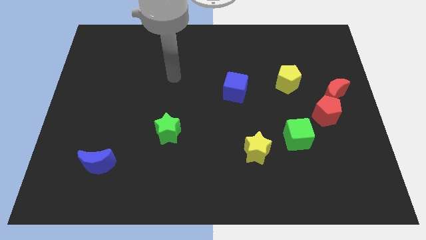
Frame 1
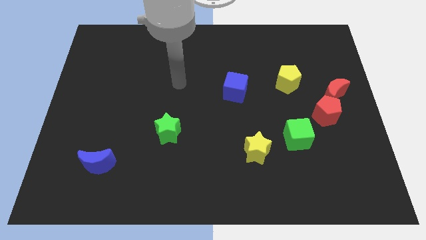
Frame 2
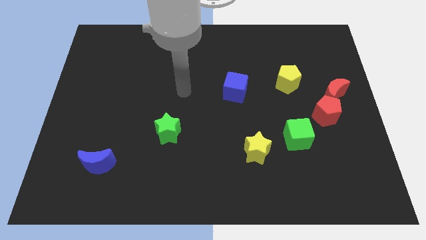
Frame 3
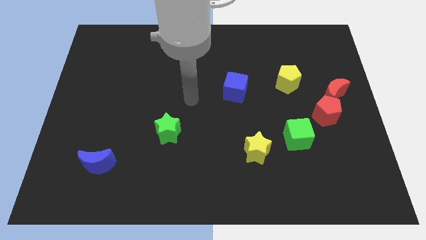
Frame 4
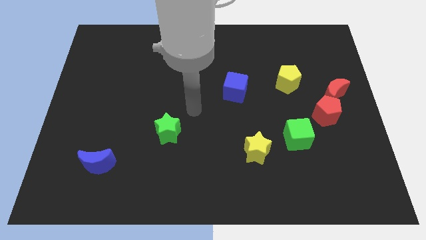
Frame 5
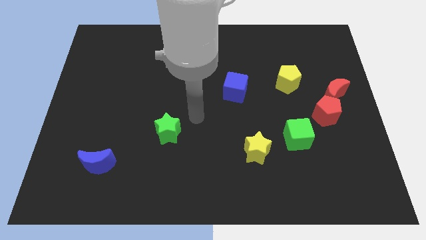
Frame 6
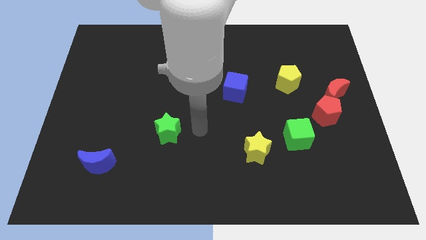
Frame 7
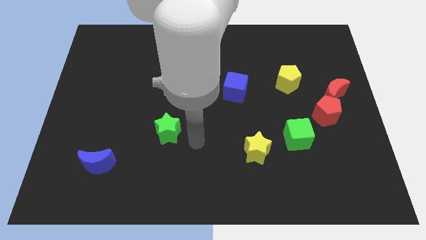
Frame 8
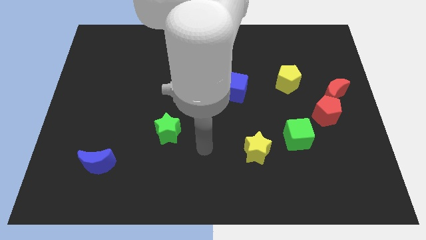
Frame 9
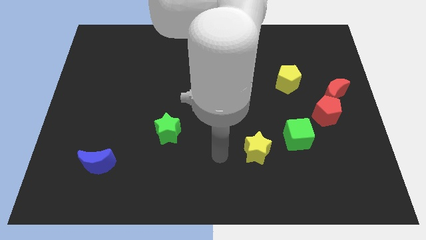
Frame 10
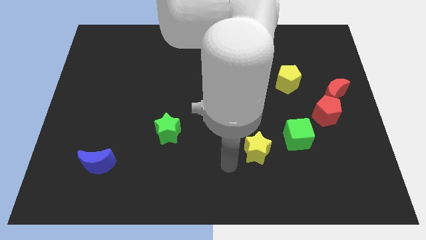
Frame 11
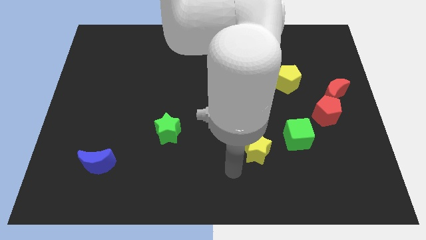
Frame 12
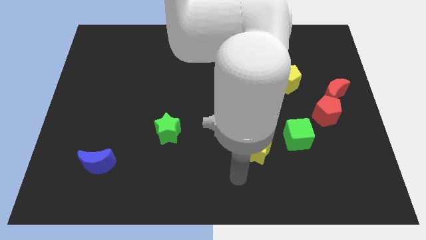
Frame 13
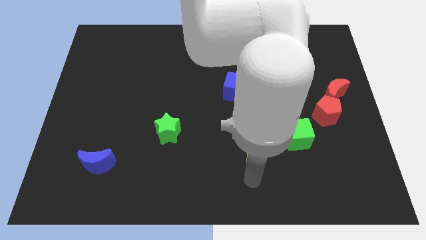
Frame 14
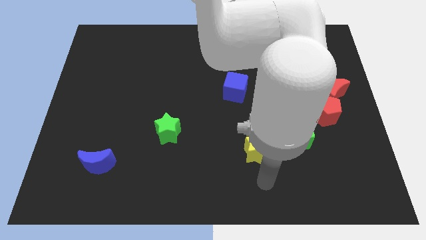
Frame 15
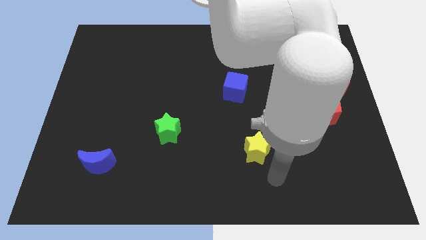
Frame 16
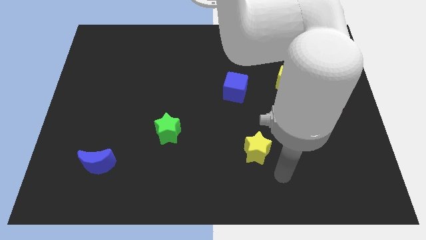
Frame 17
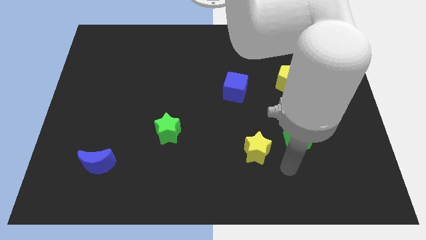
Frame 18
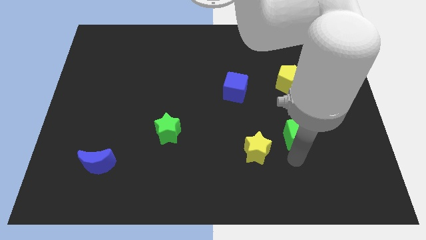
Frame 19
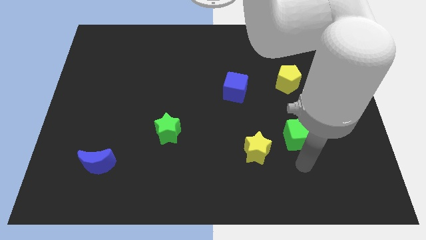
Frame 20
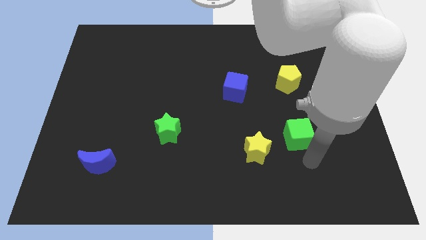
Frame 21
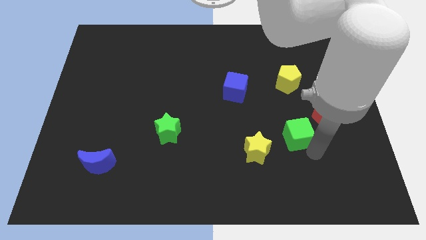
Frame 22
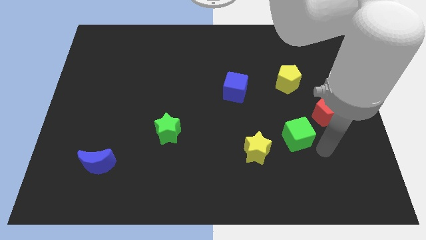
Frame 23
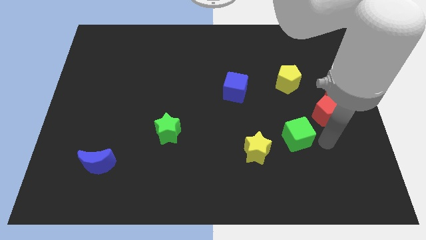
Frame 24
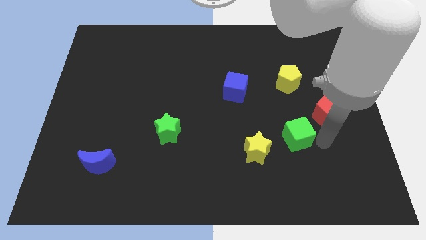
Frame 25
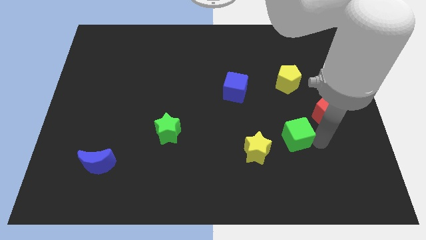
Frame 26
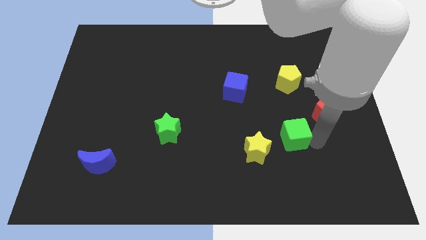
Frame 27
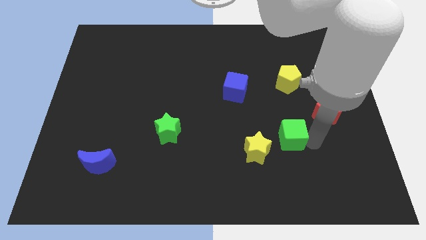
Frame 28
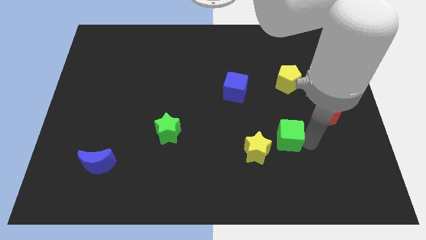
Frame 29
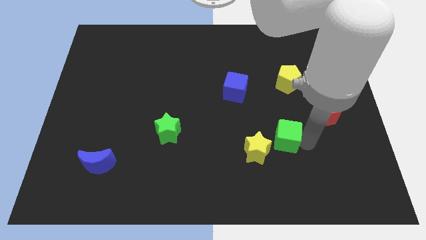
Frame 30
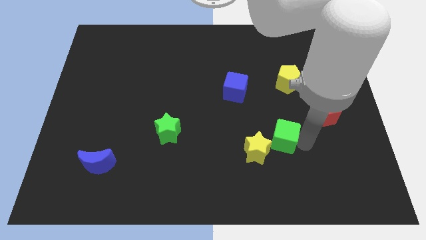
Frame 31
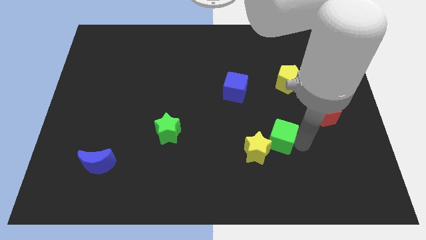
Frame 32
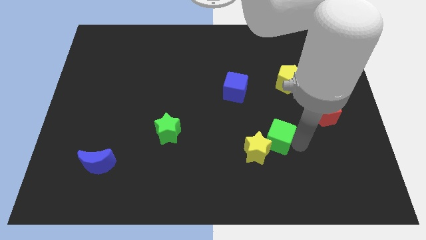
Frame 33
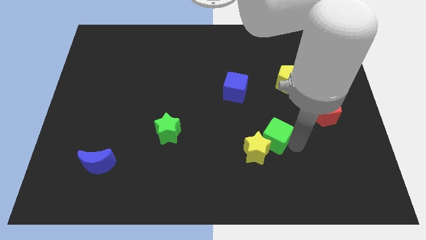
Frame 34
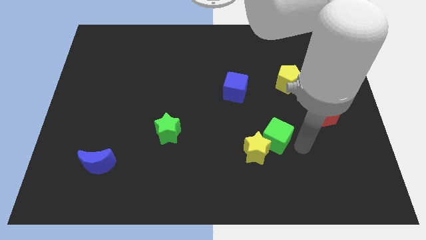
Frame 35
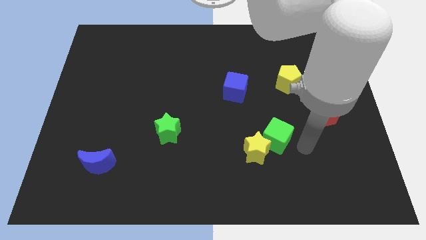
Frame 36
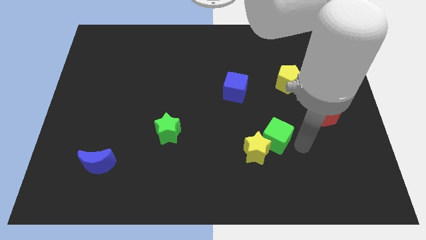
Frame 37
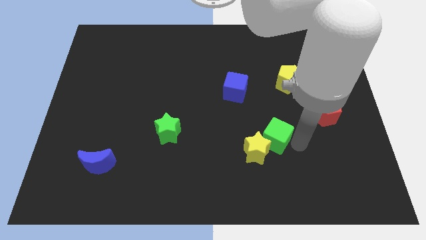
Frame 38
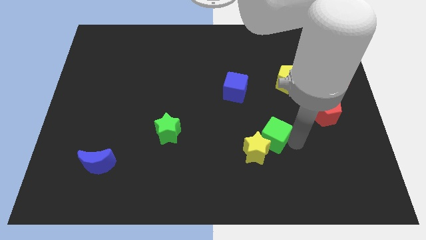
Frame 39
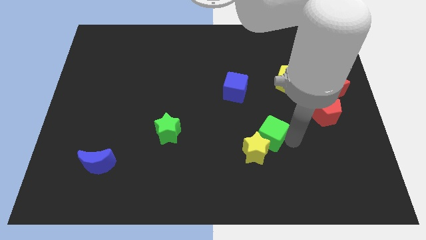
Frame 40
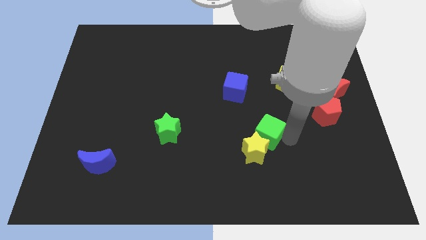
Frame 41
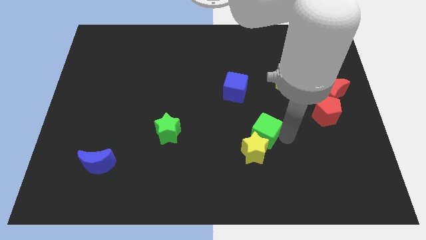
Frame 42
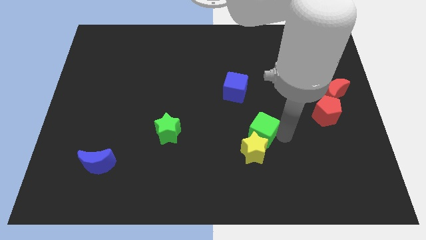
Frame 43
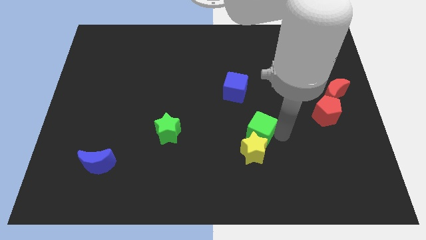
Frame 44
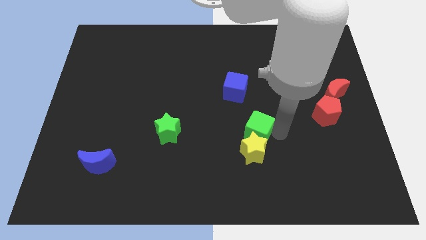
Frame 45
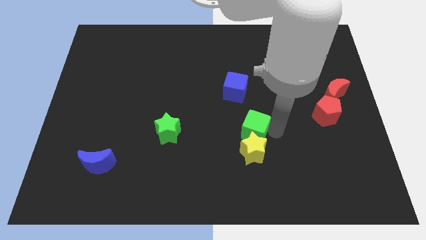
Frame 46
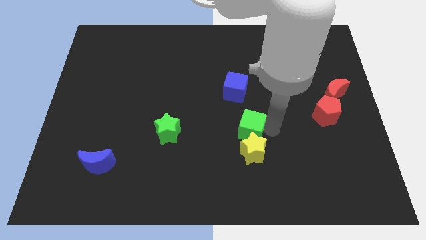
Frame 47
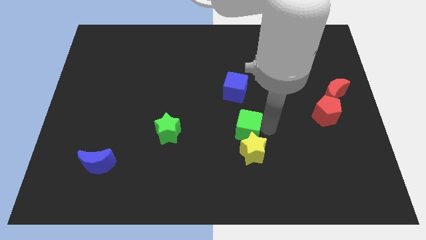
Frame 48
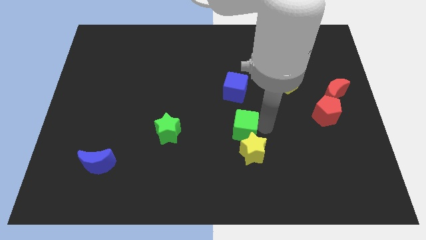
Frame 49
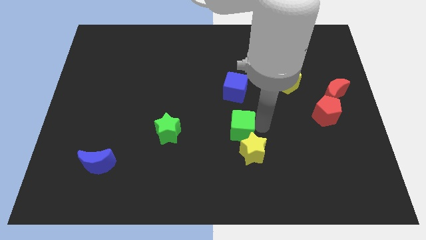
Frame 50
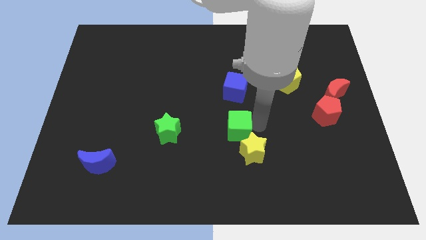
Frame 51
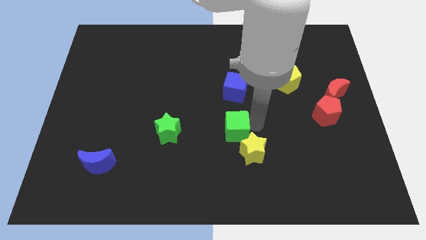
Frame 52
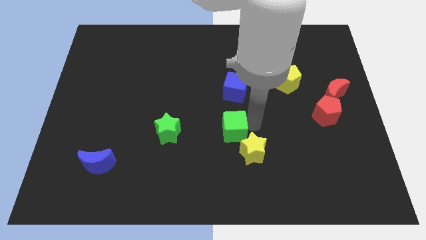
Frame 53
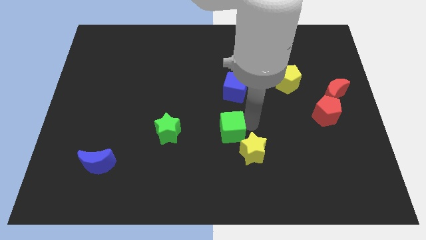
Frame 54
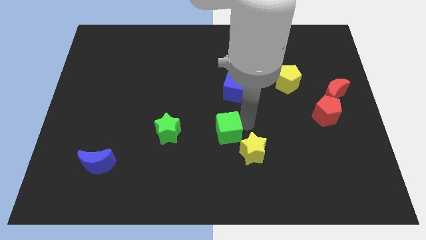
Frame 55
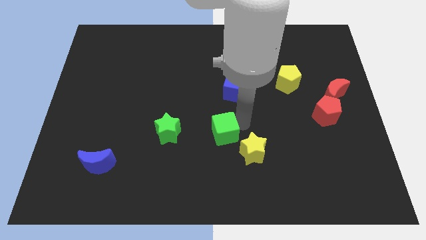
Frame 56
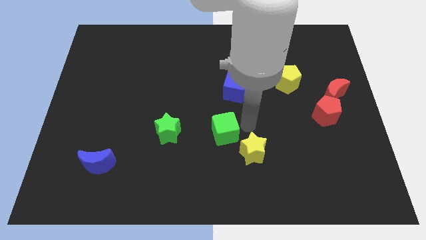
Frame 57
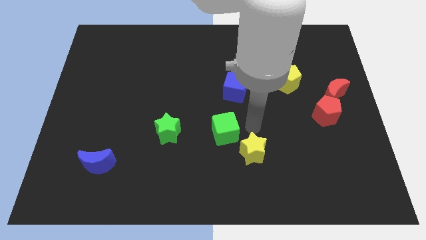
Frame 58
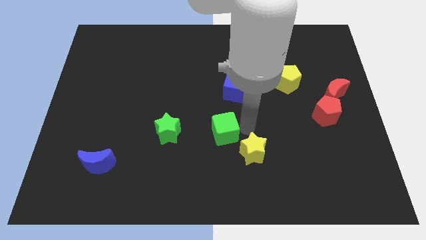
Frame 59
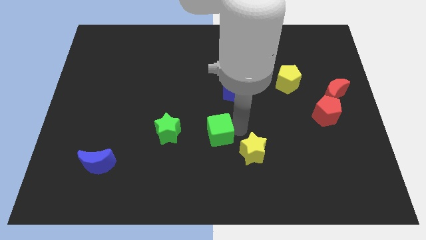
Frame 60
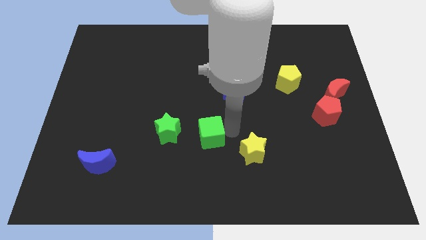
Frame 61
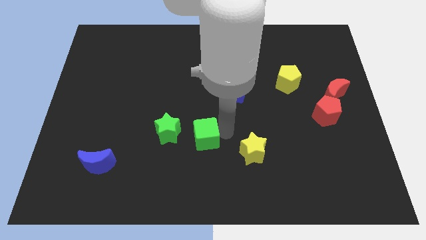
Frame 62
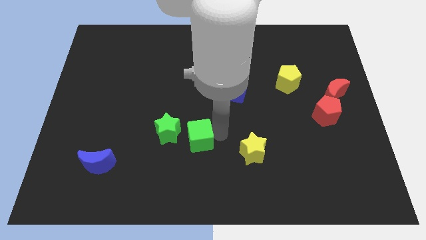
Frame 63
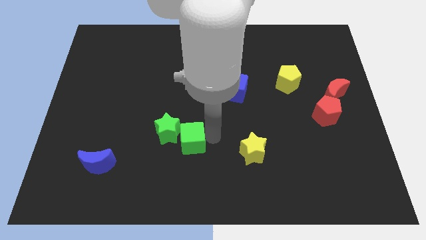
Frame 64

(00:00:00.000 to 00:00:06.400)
move the green cube next to the green star
